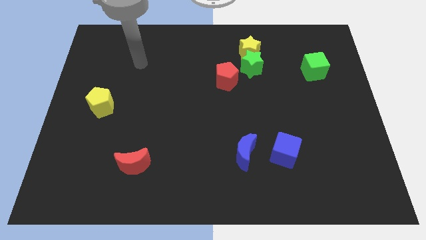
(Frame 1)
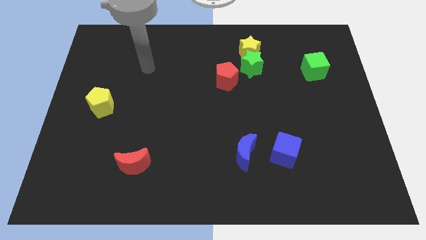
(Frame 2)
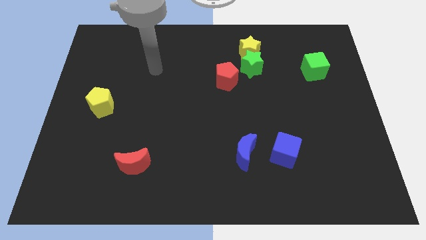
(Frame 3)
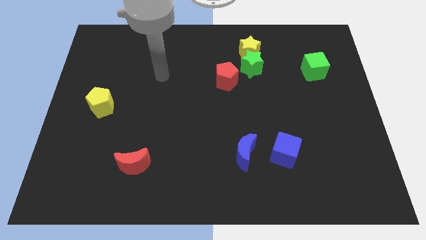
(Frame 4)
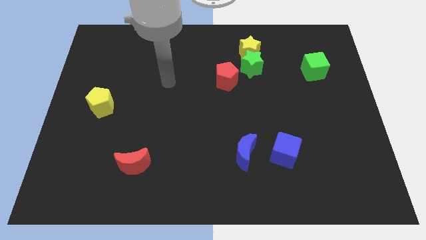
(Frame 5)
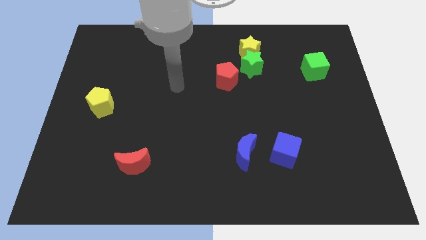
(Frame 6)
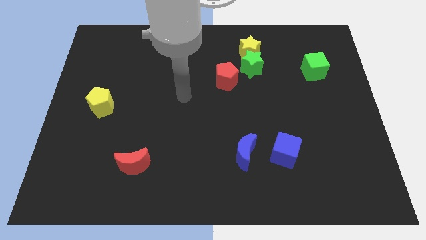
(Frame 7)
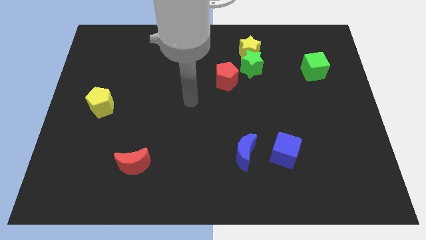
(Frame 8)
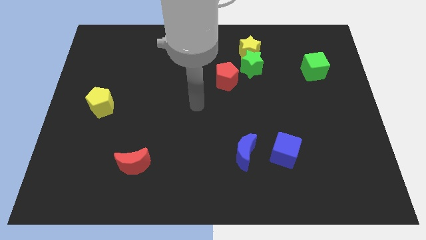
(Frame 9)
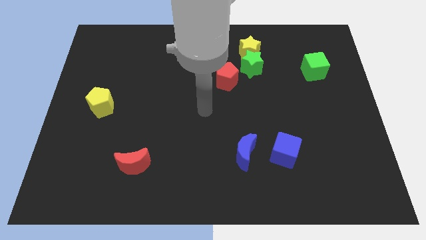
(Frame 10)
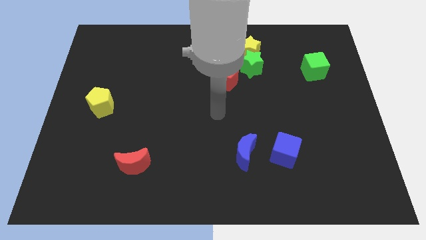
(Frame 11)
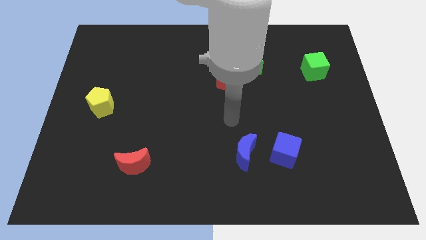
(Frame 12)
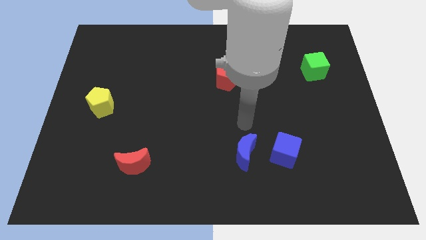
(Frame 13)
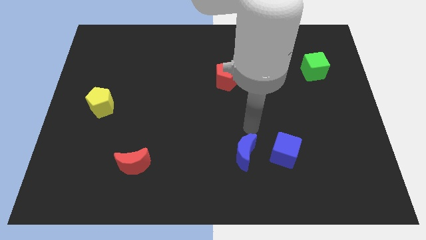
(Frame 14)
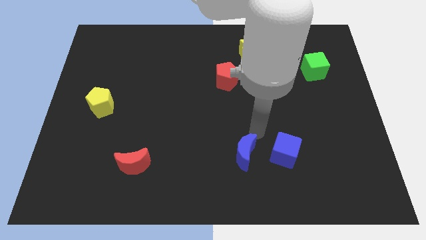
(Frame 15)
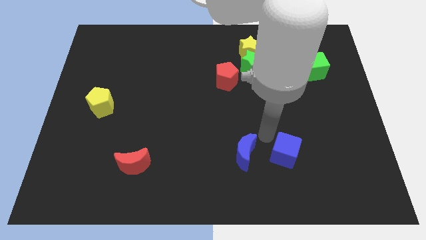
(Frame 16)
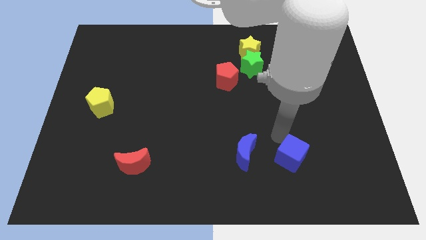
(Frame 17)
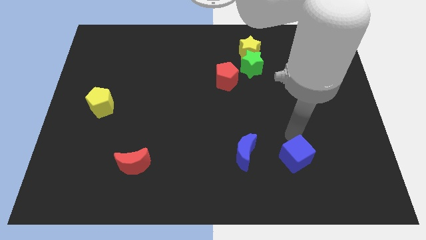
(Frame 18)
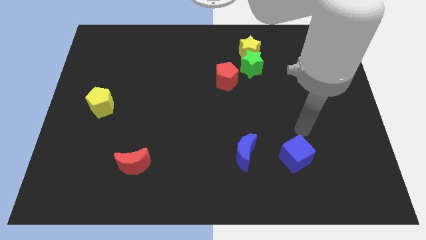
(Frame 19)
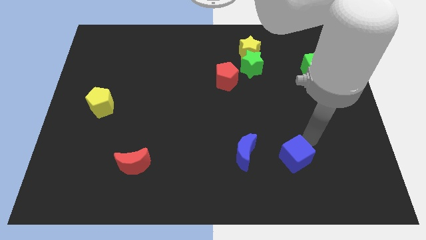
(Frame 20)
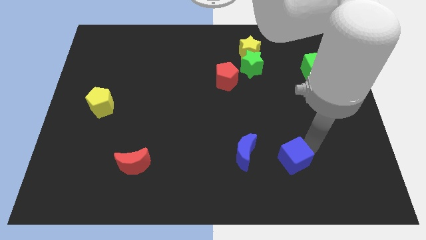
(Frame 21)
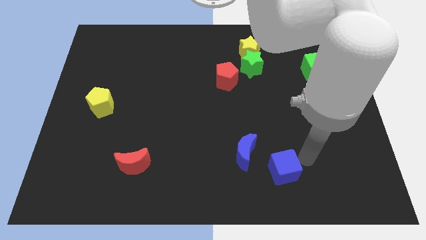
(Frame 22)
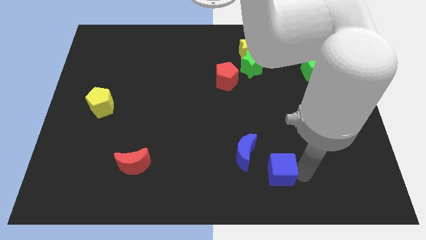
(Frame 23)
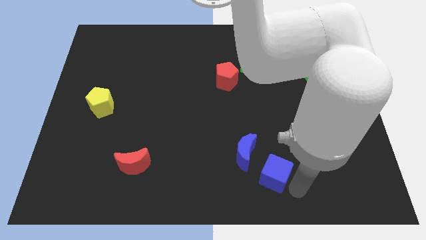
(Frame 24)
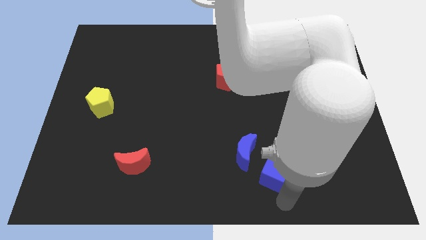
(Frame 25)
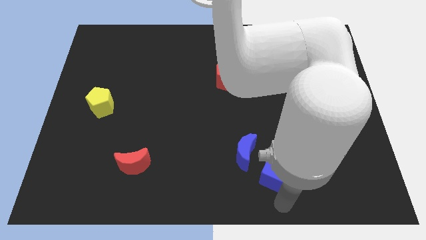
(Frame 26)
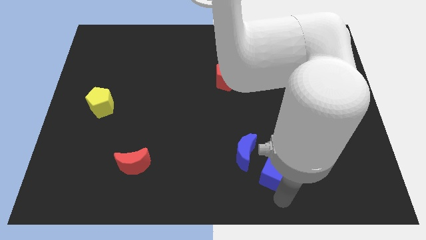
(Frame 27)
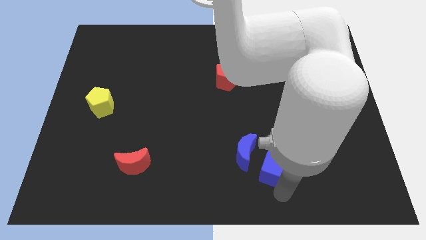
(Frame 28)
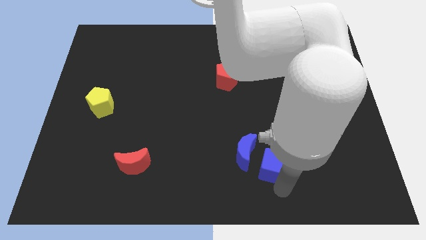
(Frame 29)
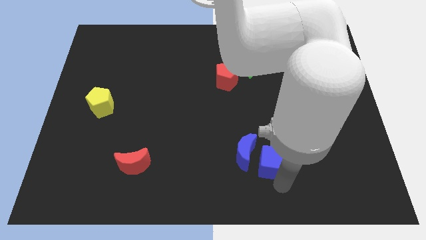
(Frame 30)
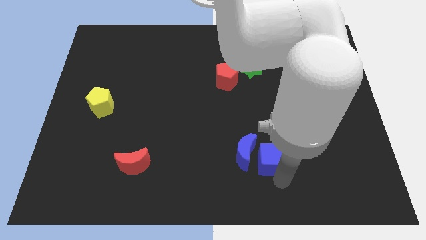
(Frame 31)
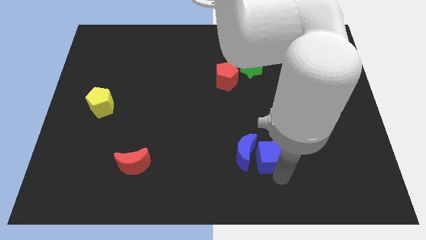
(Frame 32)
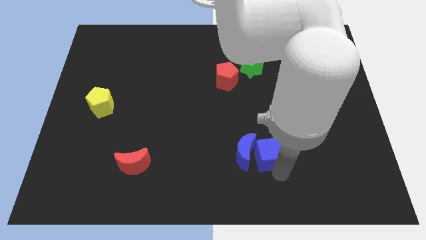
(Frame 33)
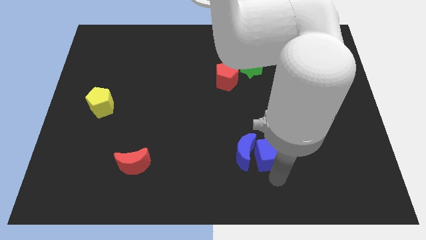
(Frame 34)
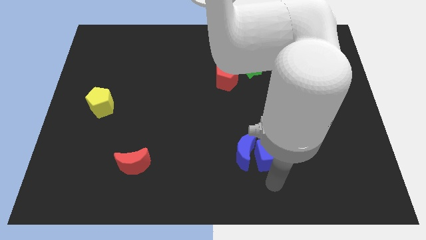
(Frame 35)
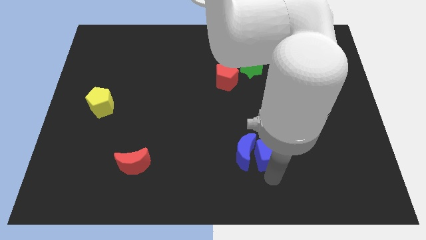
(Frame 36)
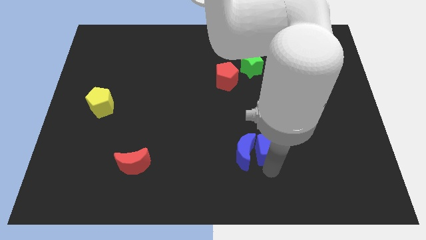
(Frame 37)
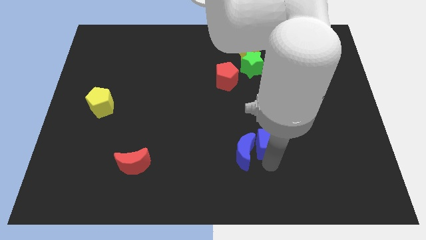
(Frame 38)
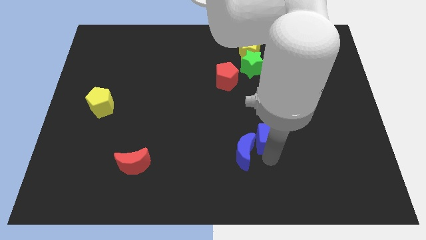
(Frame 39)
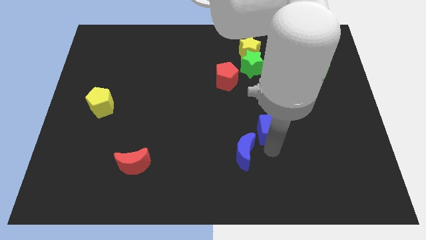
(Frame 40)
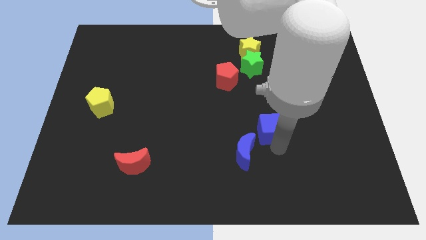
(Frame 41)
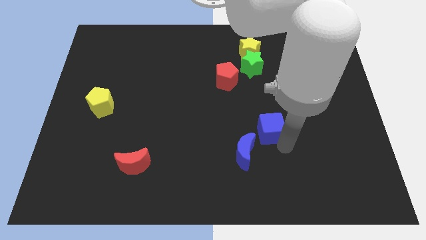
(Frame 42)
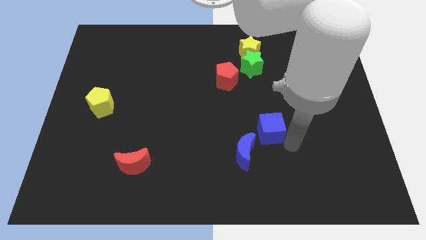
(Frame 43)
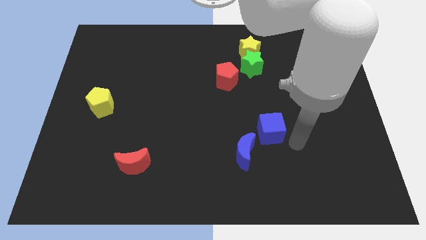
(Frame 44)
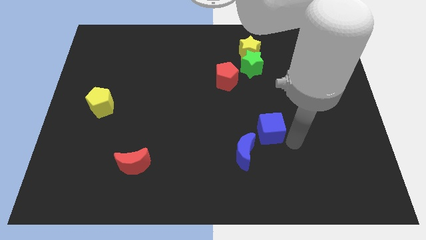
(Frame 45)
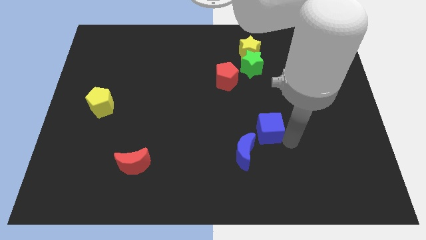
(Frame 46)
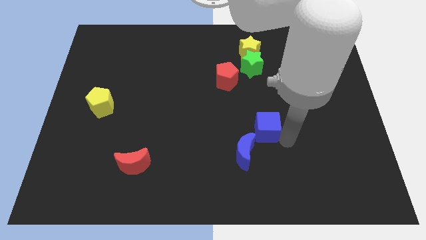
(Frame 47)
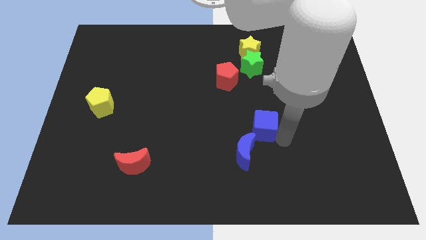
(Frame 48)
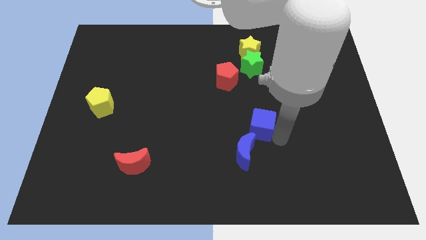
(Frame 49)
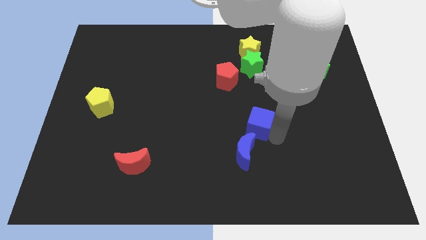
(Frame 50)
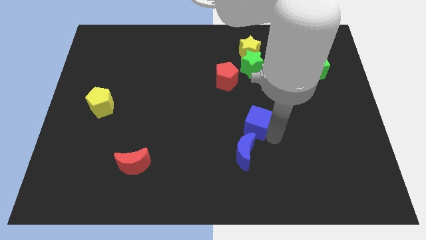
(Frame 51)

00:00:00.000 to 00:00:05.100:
put the blue cube to the middle

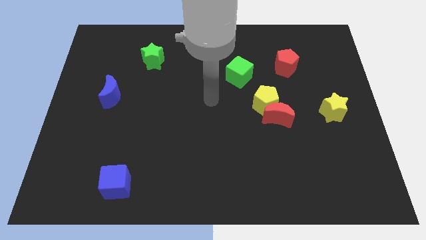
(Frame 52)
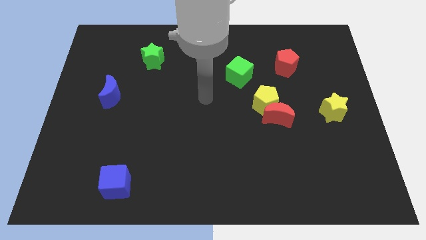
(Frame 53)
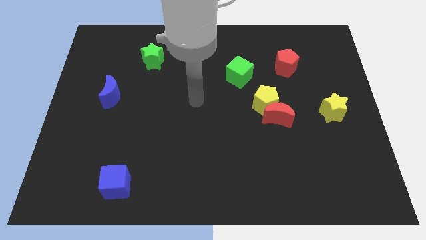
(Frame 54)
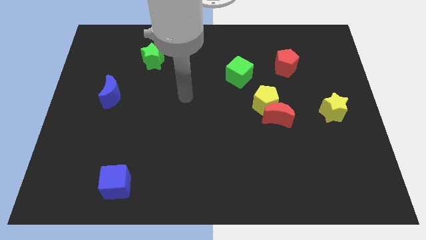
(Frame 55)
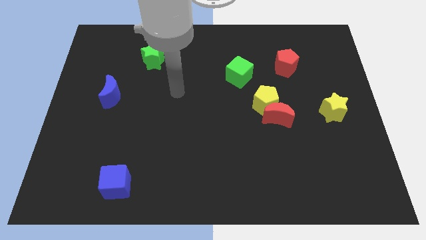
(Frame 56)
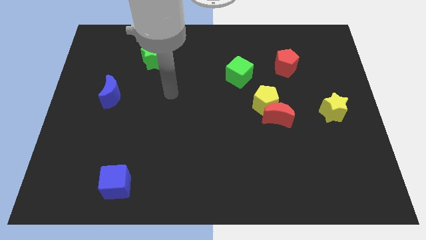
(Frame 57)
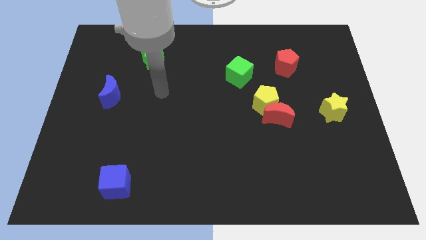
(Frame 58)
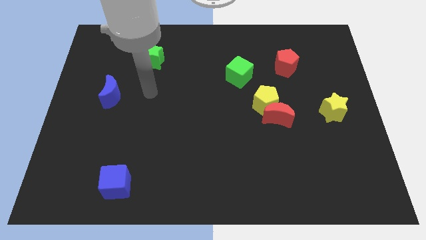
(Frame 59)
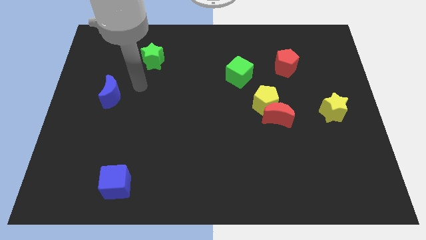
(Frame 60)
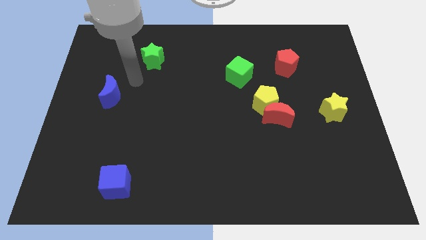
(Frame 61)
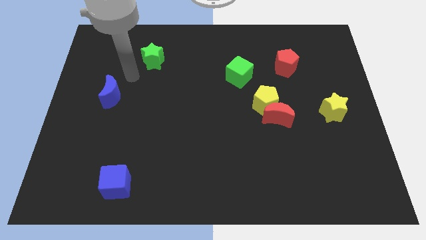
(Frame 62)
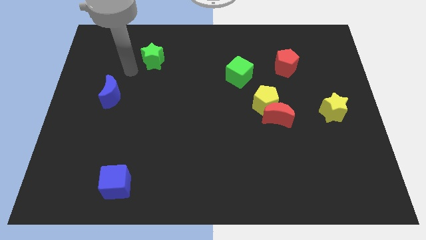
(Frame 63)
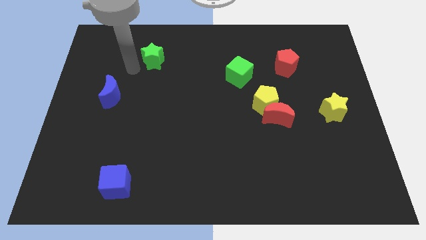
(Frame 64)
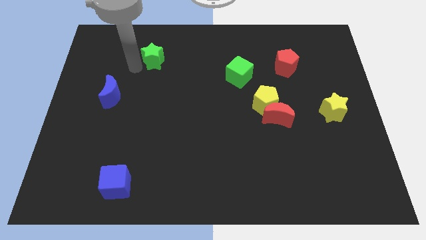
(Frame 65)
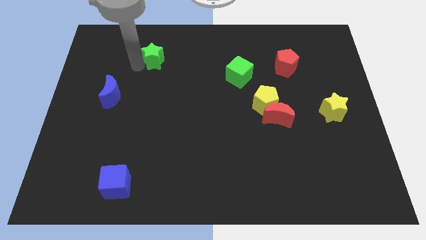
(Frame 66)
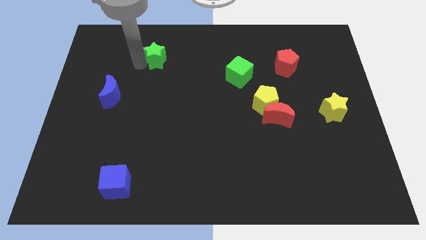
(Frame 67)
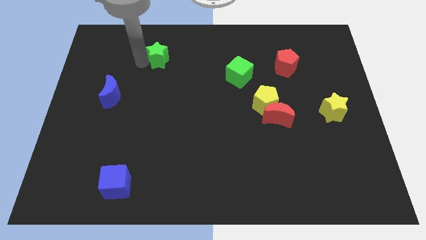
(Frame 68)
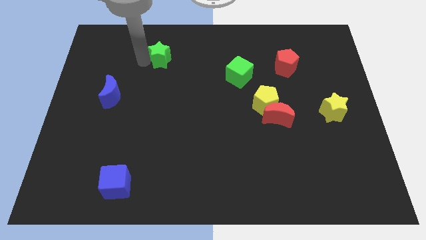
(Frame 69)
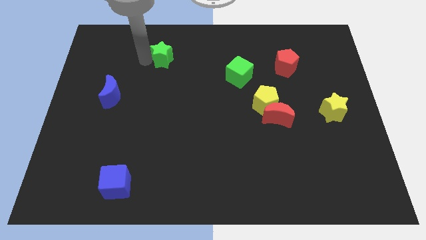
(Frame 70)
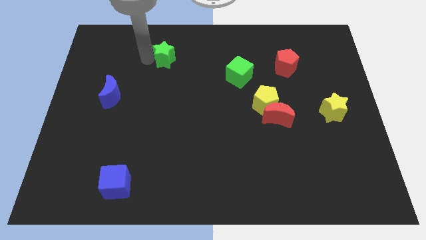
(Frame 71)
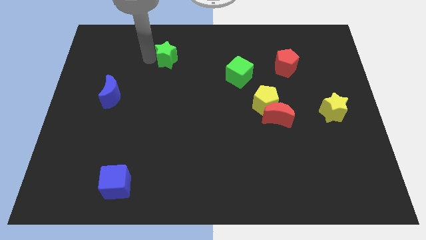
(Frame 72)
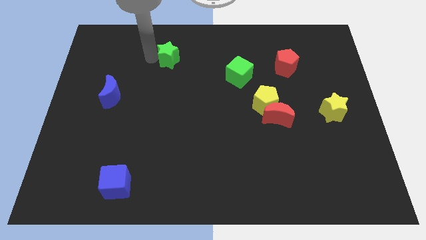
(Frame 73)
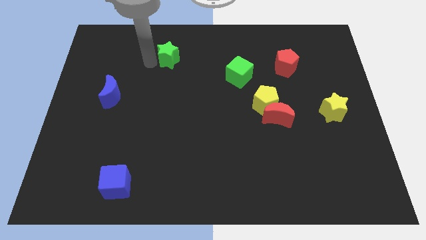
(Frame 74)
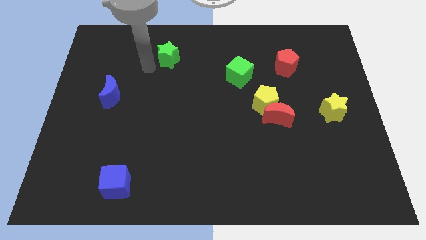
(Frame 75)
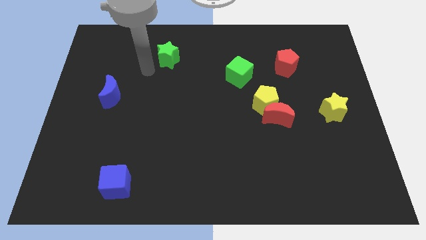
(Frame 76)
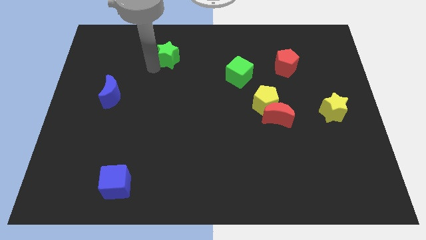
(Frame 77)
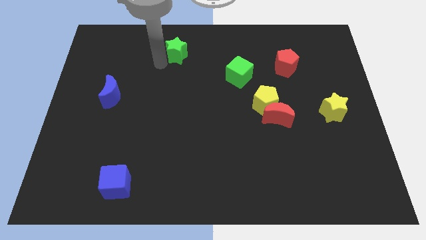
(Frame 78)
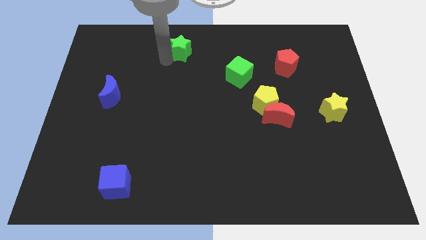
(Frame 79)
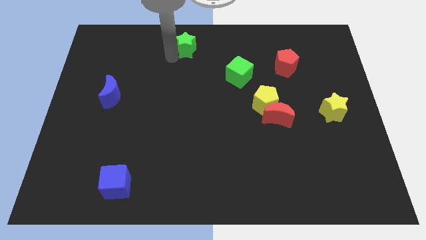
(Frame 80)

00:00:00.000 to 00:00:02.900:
put the green star to the top side
